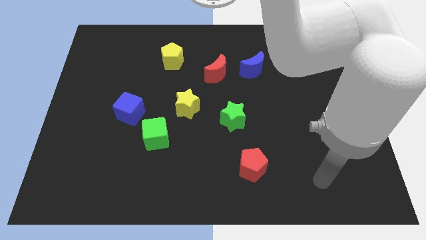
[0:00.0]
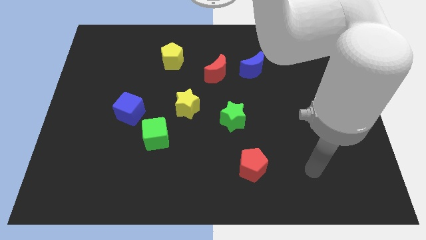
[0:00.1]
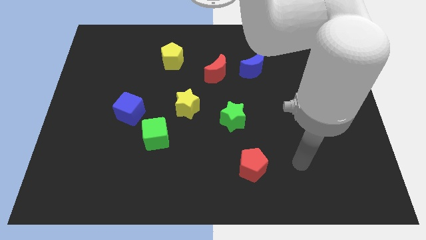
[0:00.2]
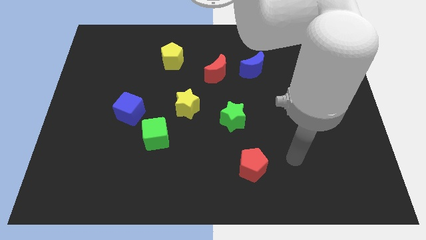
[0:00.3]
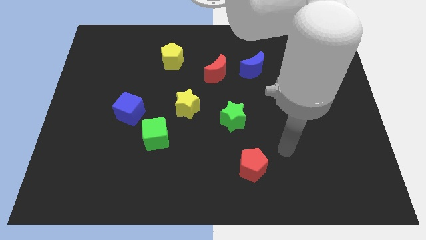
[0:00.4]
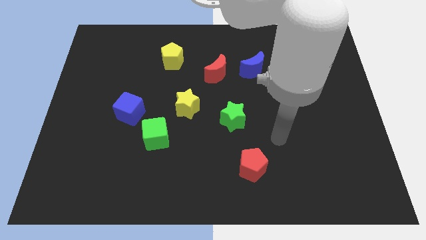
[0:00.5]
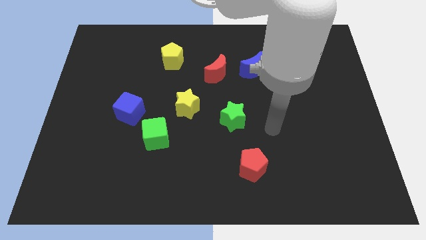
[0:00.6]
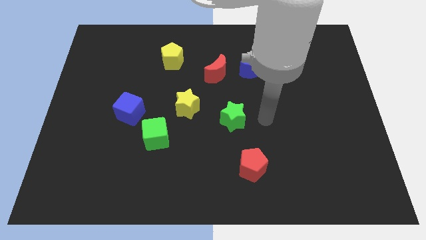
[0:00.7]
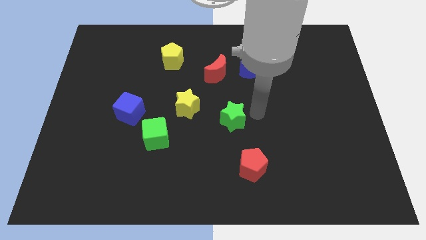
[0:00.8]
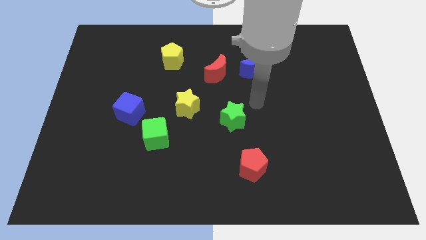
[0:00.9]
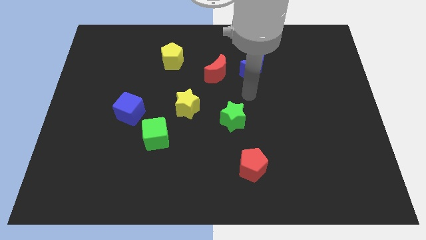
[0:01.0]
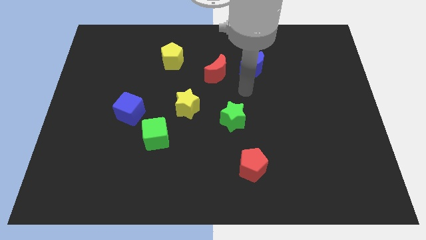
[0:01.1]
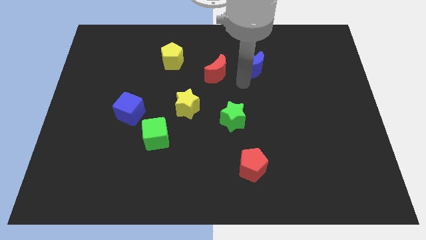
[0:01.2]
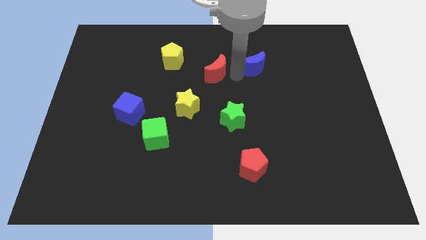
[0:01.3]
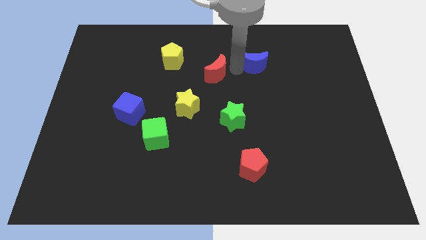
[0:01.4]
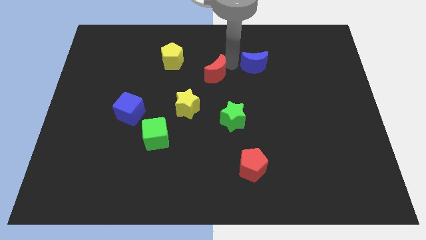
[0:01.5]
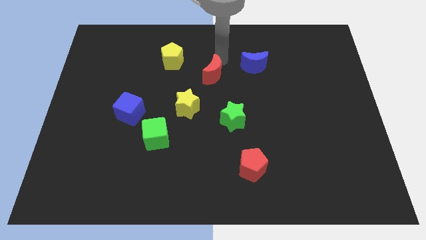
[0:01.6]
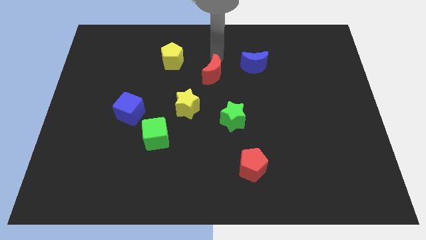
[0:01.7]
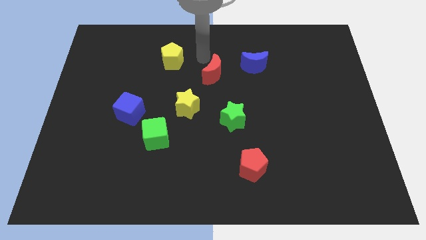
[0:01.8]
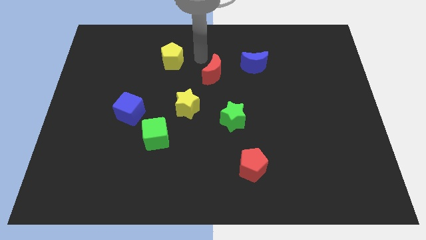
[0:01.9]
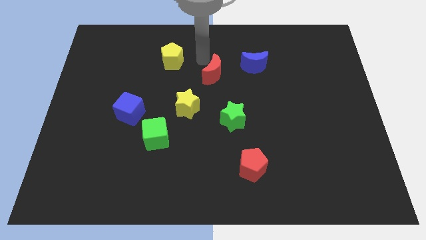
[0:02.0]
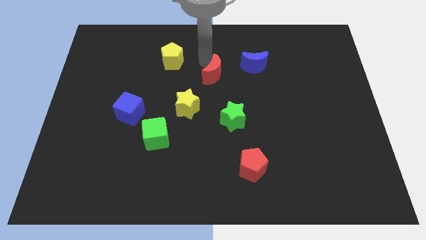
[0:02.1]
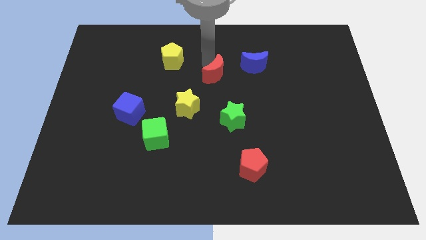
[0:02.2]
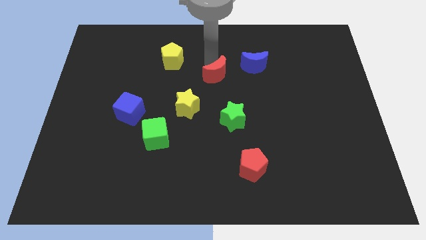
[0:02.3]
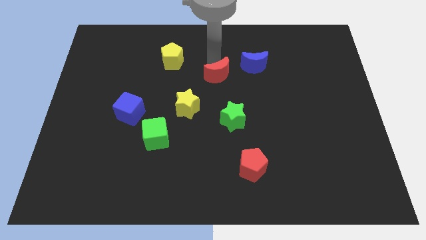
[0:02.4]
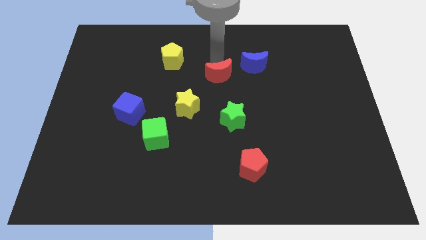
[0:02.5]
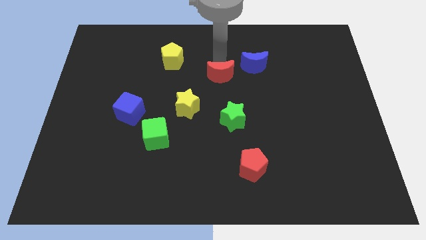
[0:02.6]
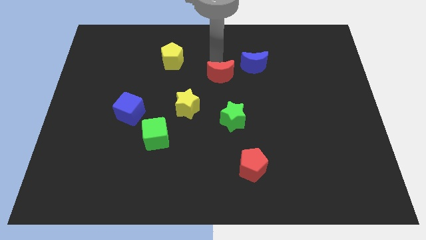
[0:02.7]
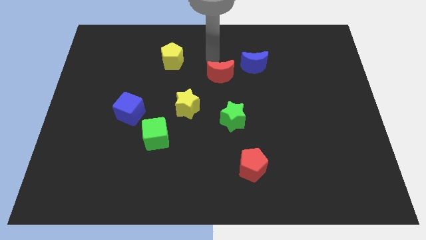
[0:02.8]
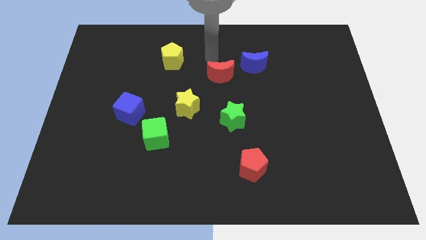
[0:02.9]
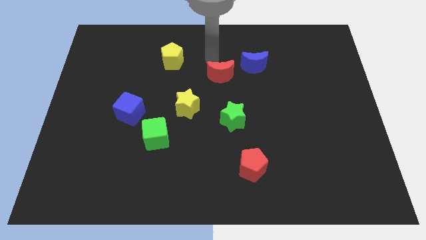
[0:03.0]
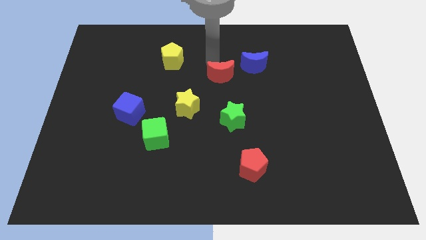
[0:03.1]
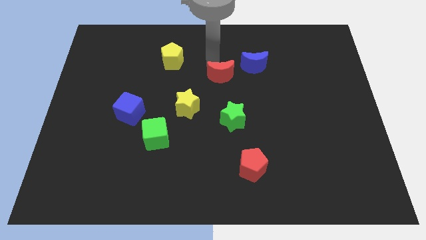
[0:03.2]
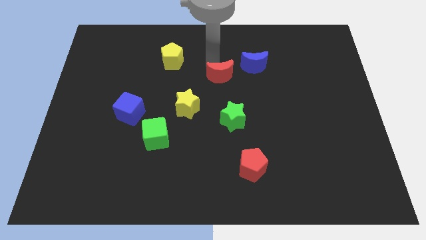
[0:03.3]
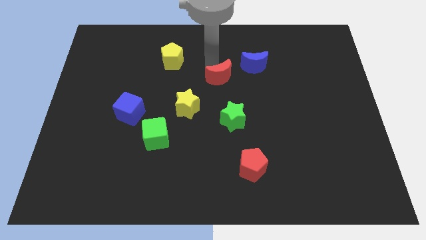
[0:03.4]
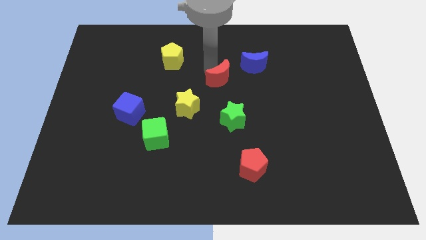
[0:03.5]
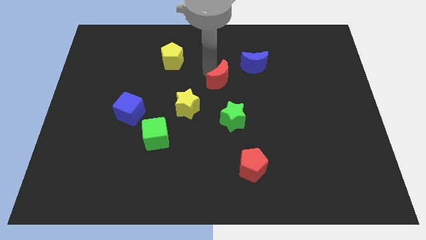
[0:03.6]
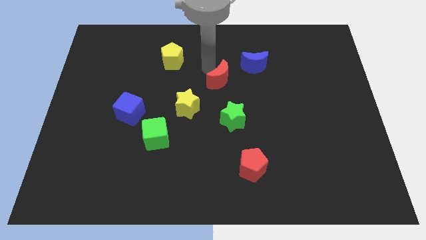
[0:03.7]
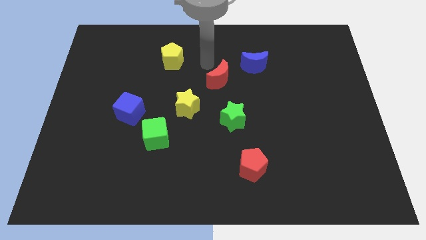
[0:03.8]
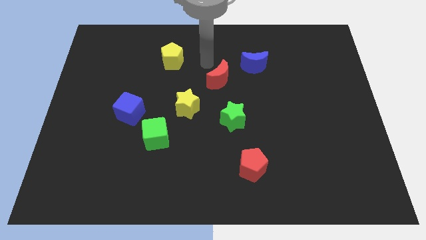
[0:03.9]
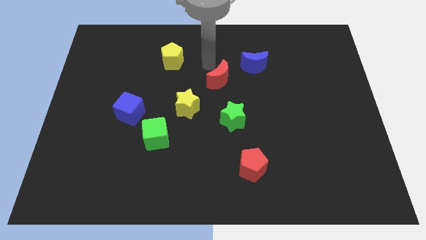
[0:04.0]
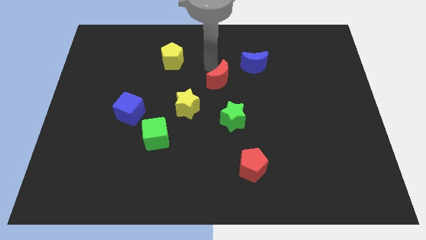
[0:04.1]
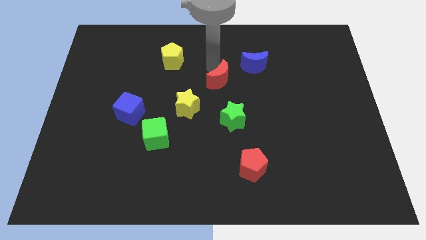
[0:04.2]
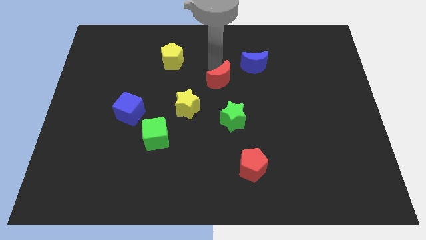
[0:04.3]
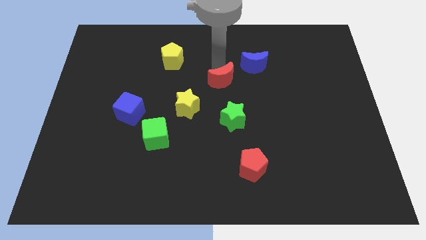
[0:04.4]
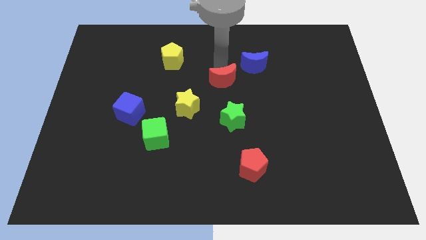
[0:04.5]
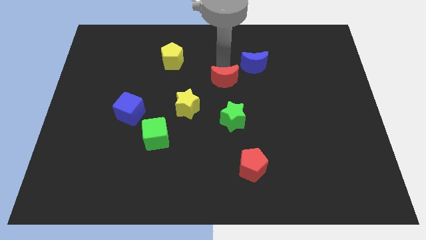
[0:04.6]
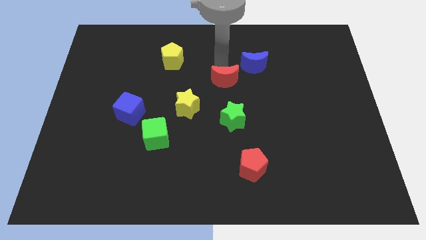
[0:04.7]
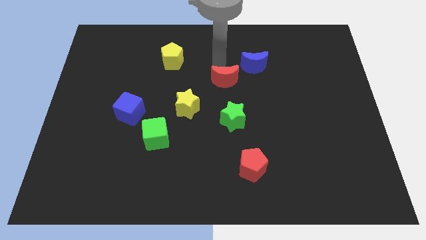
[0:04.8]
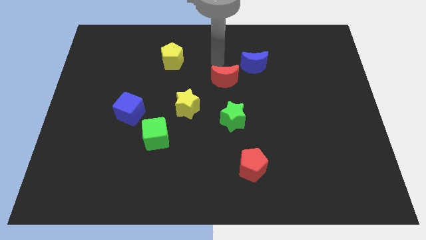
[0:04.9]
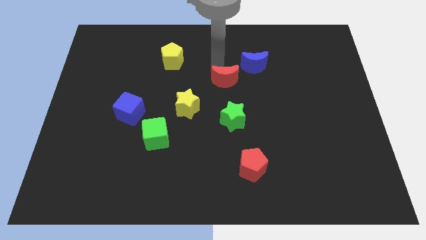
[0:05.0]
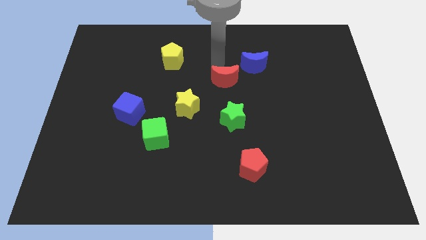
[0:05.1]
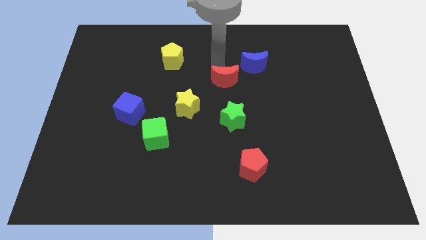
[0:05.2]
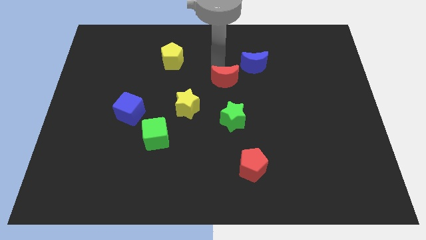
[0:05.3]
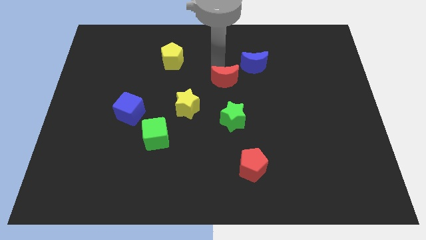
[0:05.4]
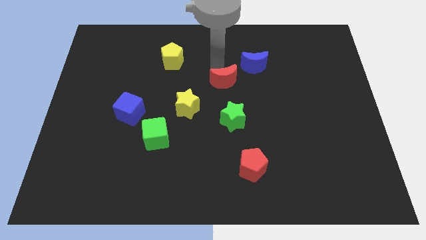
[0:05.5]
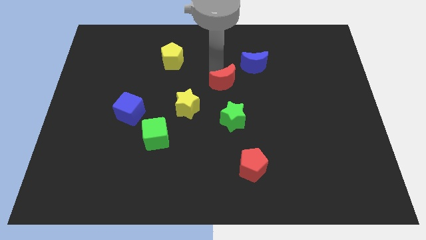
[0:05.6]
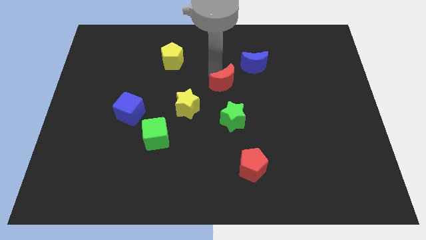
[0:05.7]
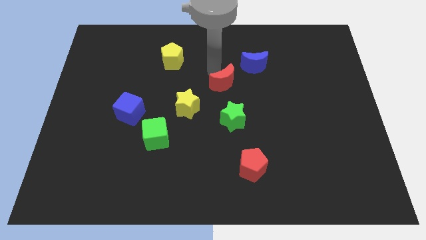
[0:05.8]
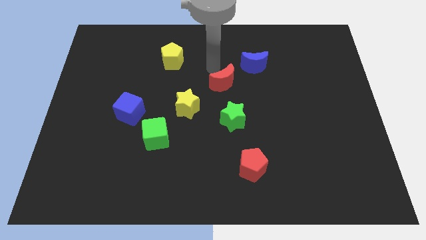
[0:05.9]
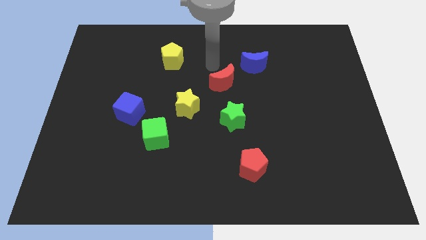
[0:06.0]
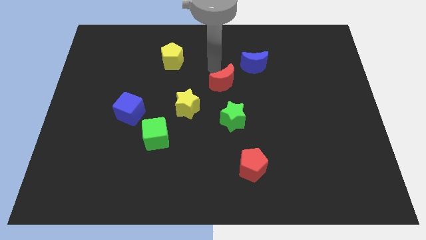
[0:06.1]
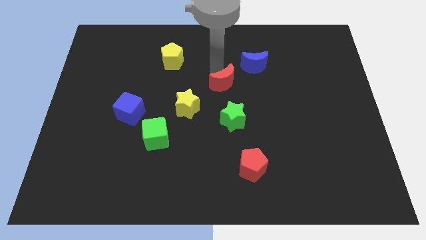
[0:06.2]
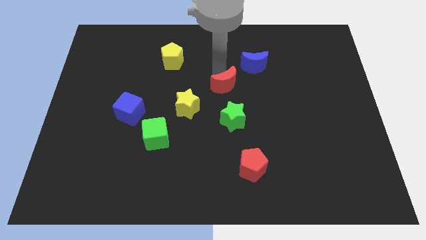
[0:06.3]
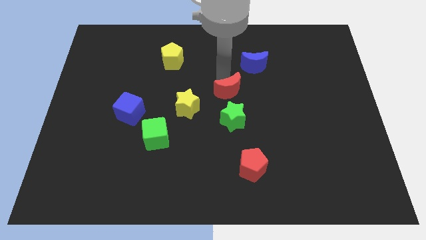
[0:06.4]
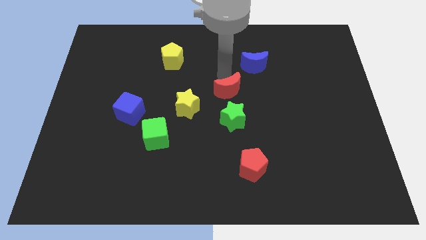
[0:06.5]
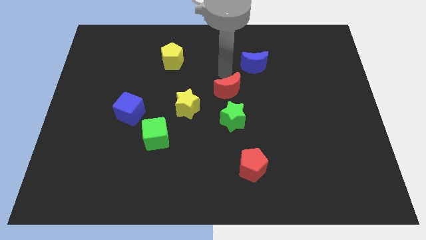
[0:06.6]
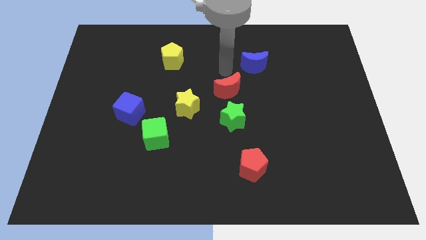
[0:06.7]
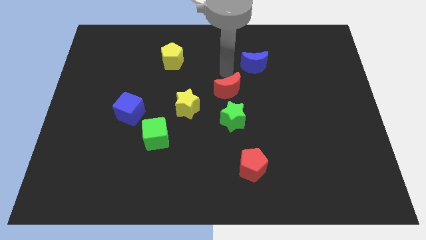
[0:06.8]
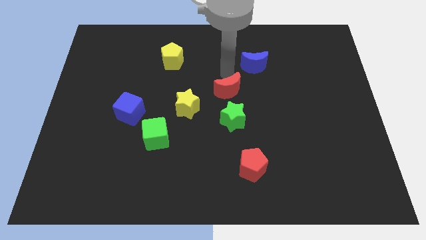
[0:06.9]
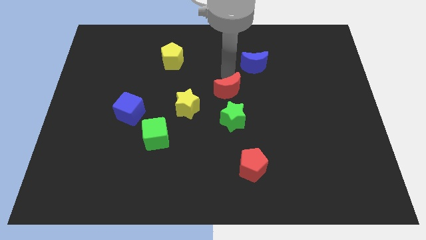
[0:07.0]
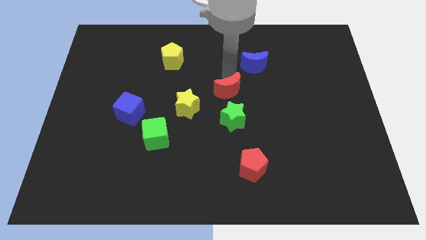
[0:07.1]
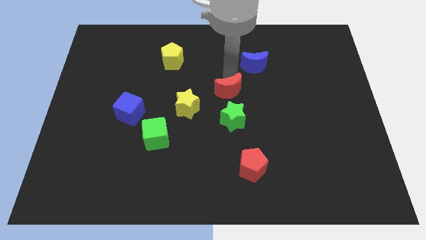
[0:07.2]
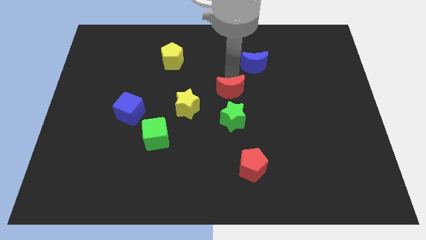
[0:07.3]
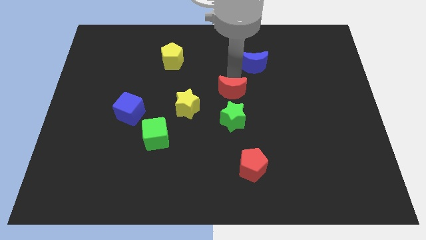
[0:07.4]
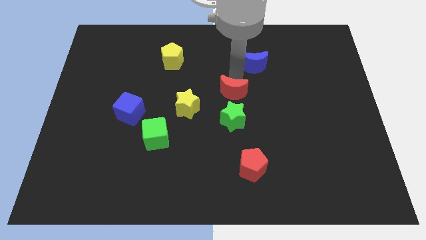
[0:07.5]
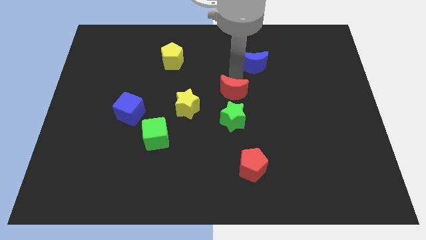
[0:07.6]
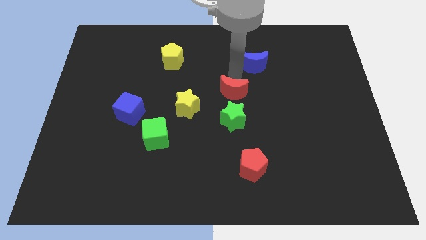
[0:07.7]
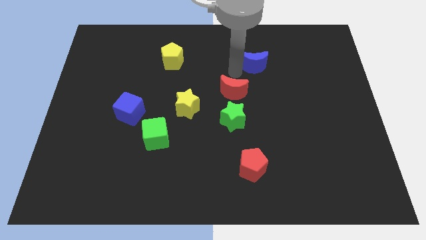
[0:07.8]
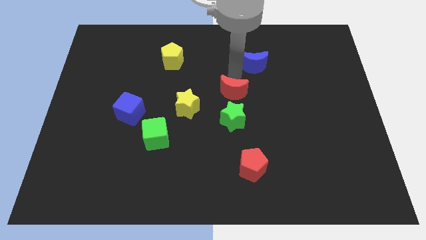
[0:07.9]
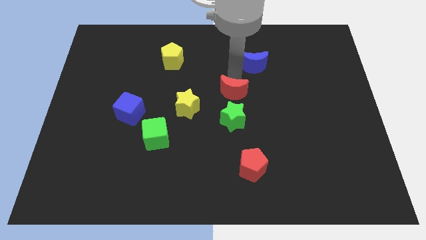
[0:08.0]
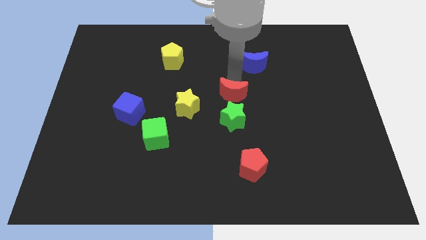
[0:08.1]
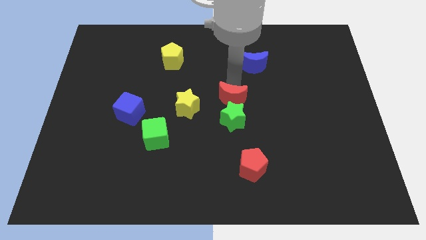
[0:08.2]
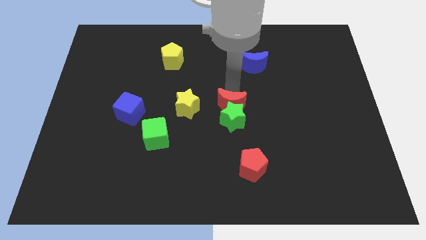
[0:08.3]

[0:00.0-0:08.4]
put the red moon to the green star
